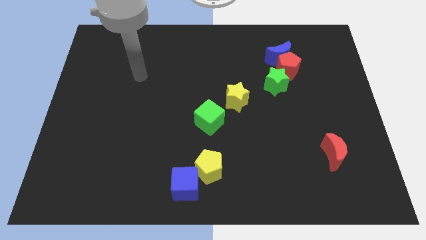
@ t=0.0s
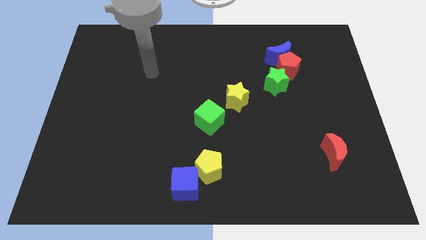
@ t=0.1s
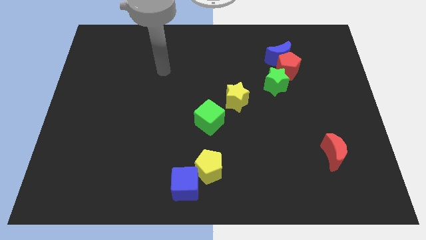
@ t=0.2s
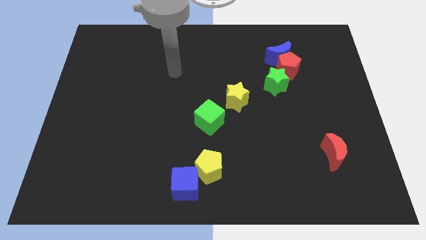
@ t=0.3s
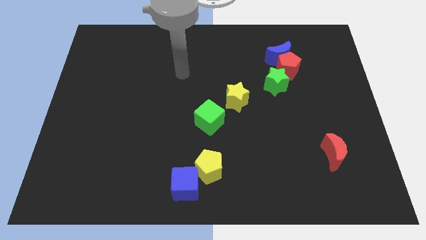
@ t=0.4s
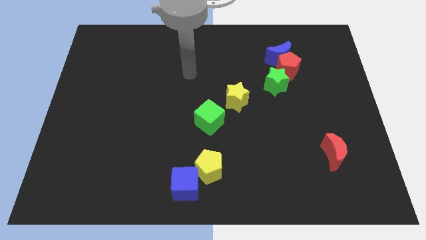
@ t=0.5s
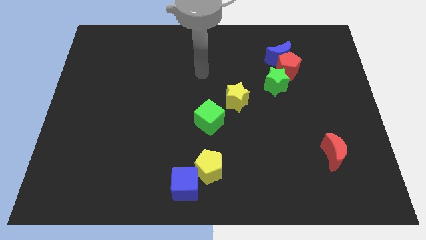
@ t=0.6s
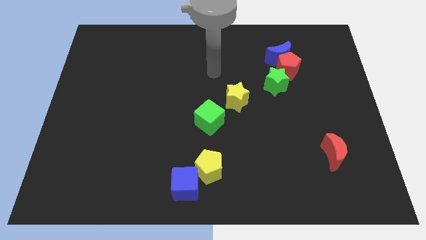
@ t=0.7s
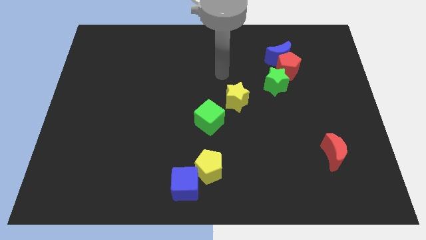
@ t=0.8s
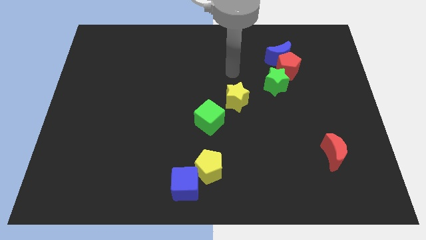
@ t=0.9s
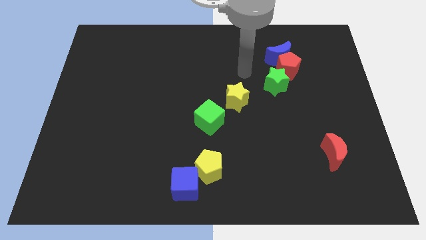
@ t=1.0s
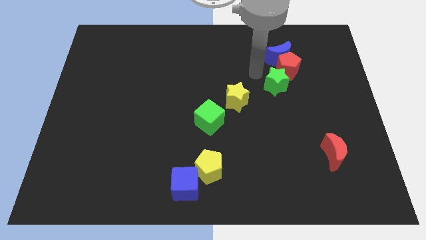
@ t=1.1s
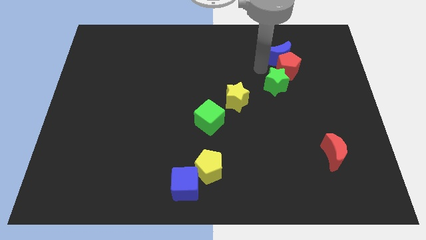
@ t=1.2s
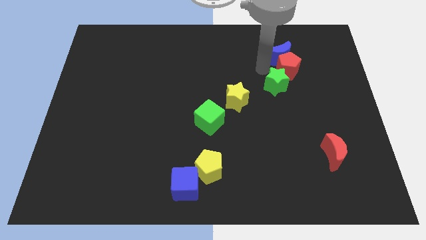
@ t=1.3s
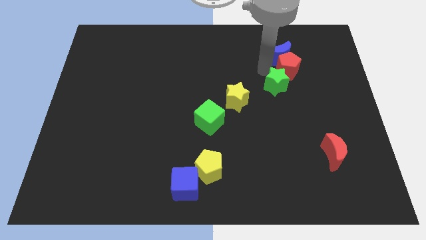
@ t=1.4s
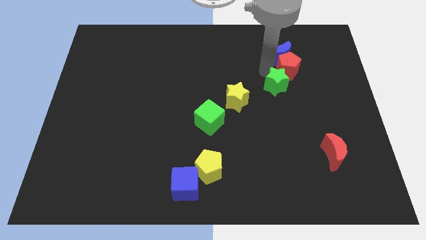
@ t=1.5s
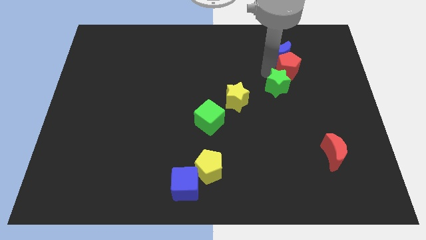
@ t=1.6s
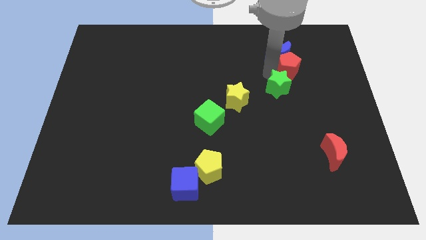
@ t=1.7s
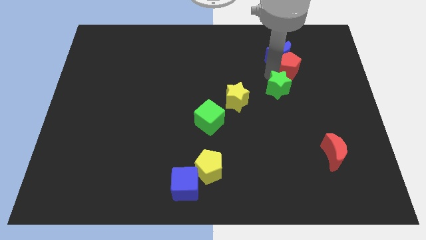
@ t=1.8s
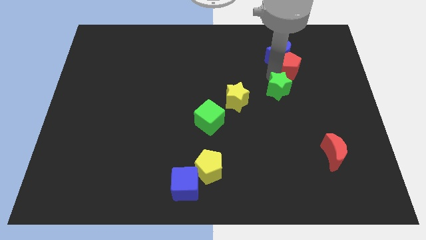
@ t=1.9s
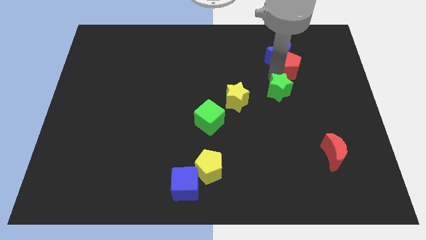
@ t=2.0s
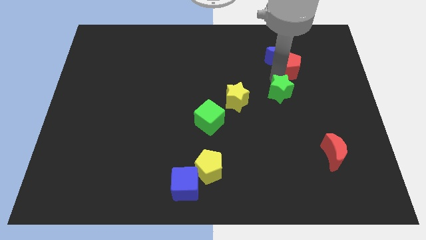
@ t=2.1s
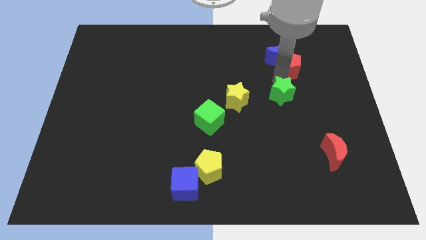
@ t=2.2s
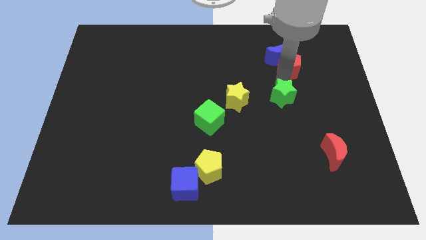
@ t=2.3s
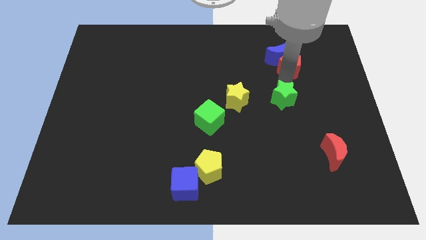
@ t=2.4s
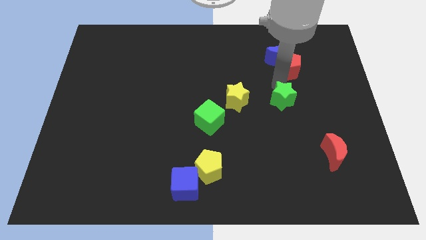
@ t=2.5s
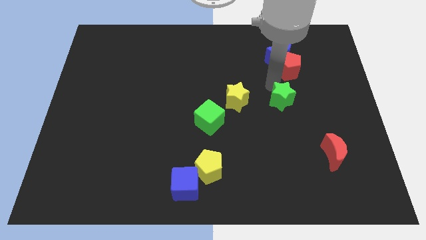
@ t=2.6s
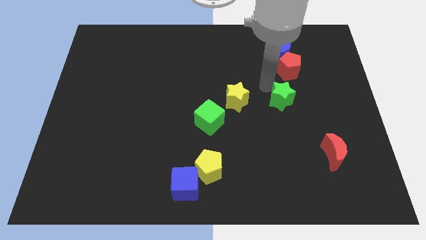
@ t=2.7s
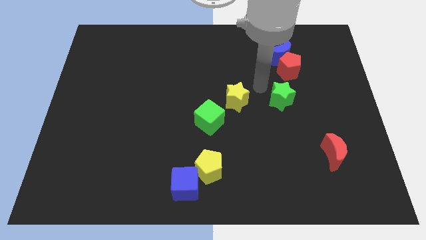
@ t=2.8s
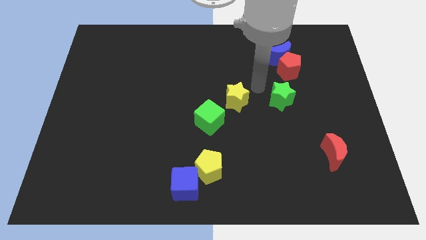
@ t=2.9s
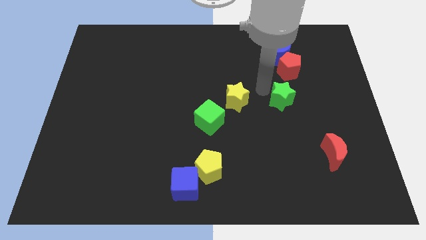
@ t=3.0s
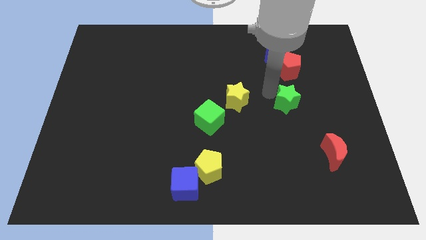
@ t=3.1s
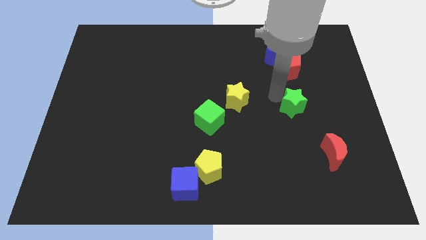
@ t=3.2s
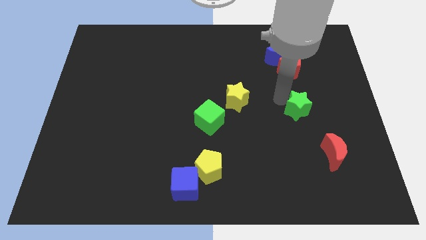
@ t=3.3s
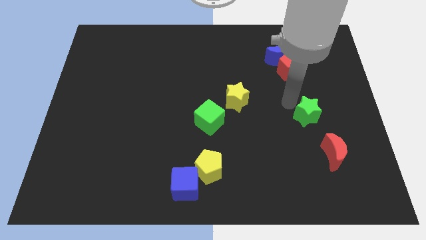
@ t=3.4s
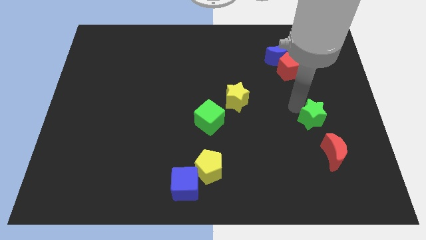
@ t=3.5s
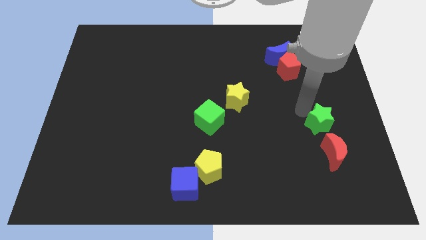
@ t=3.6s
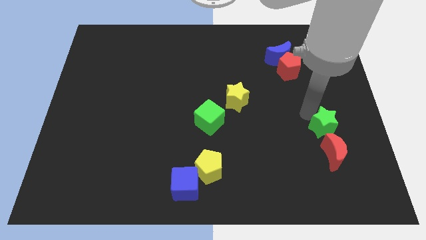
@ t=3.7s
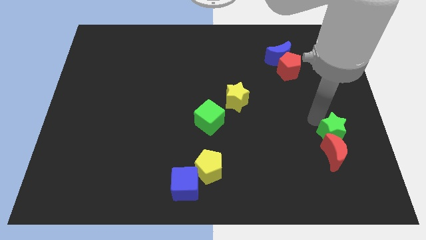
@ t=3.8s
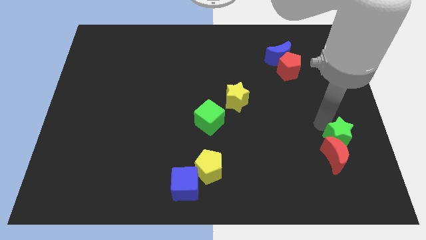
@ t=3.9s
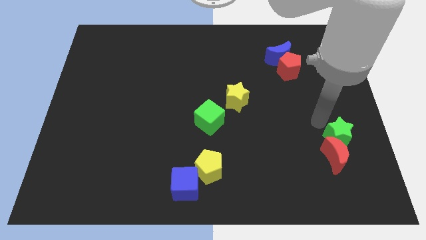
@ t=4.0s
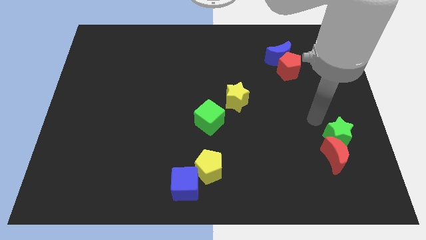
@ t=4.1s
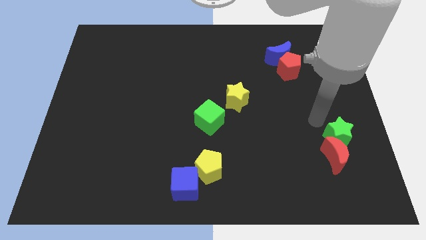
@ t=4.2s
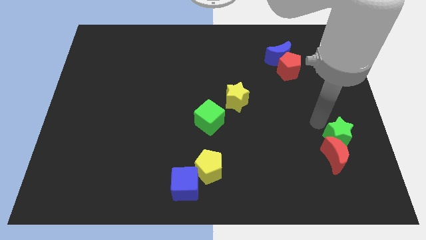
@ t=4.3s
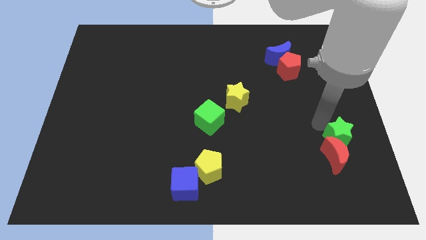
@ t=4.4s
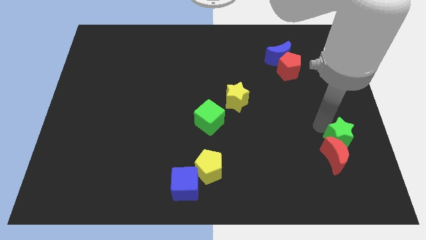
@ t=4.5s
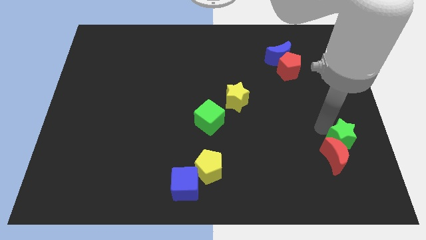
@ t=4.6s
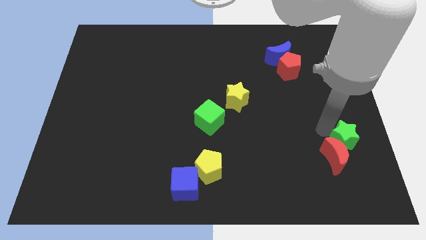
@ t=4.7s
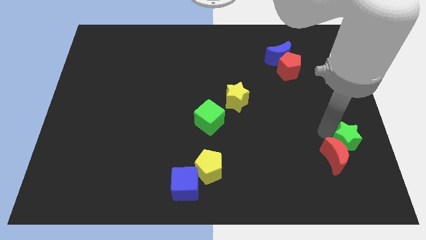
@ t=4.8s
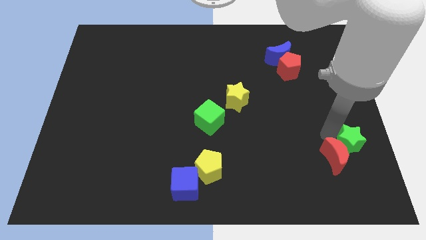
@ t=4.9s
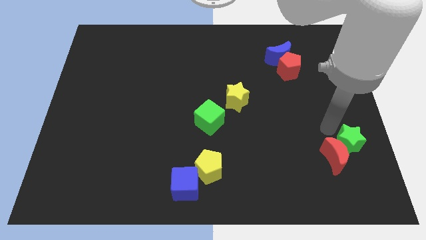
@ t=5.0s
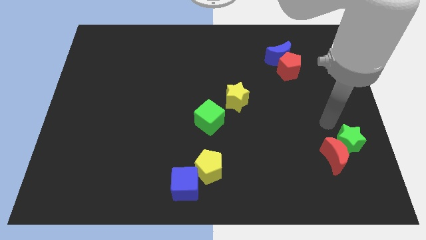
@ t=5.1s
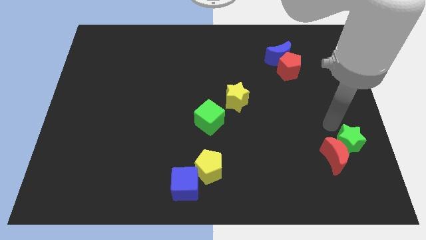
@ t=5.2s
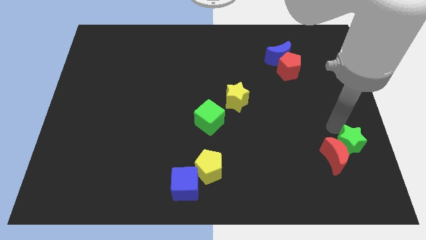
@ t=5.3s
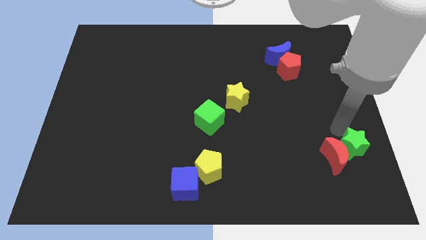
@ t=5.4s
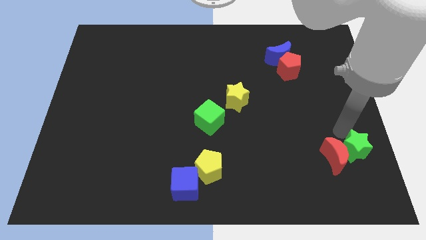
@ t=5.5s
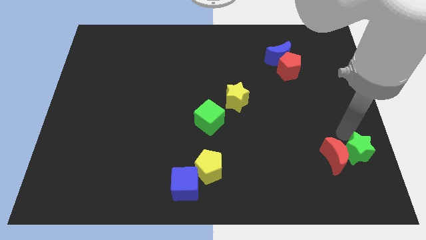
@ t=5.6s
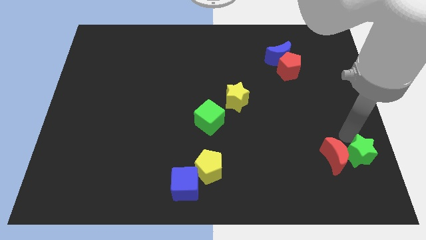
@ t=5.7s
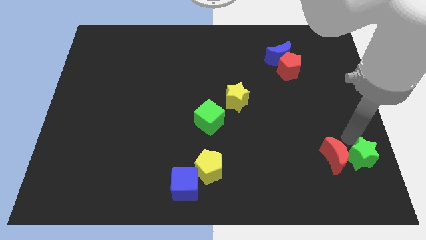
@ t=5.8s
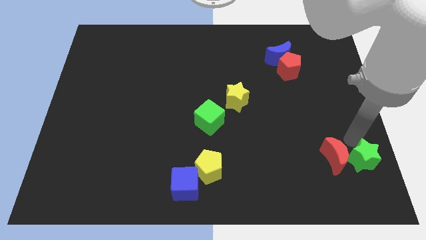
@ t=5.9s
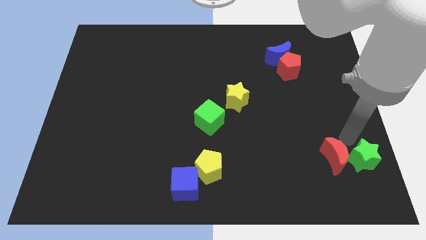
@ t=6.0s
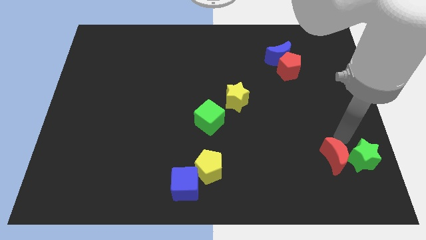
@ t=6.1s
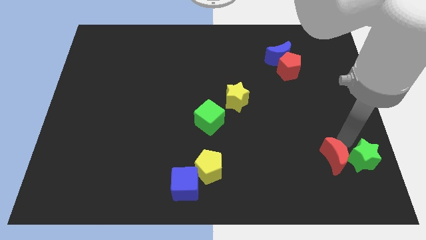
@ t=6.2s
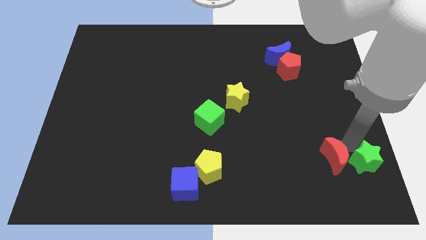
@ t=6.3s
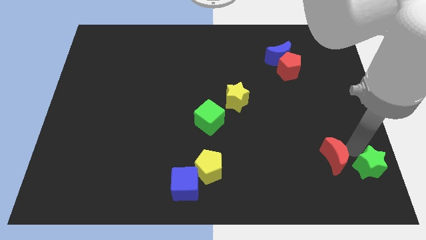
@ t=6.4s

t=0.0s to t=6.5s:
put the green star to the bottom right corner

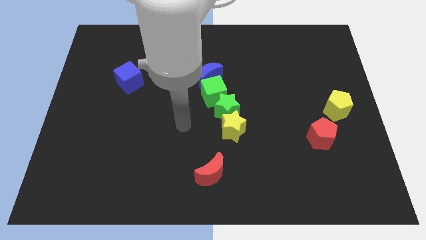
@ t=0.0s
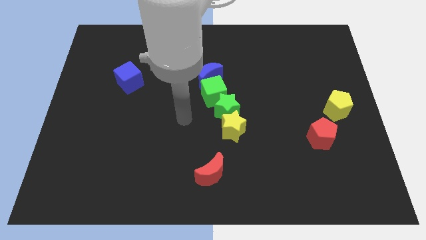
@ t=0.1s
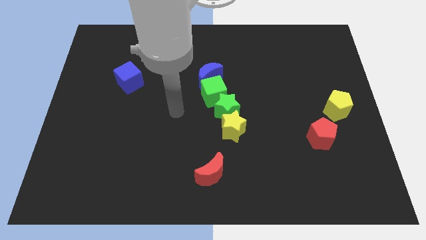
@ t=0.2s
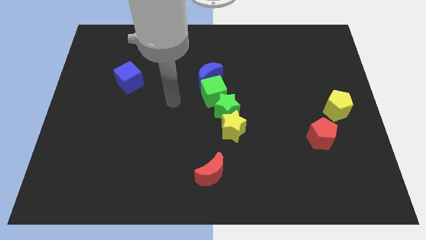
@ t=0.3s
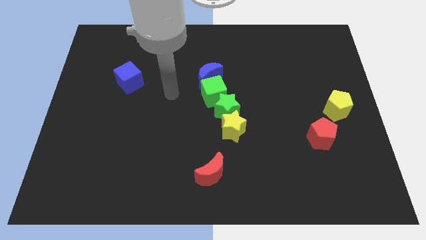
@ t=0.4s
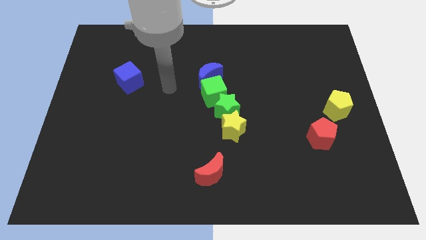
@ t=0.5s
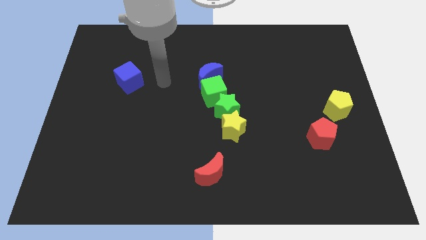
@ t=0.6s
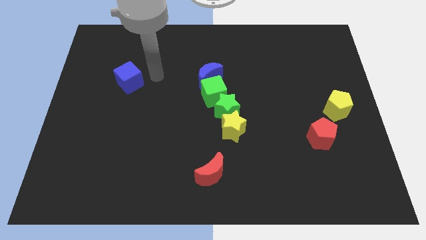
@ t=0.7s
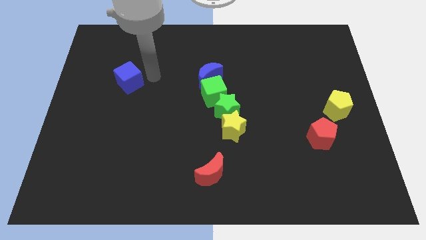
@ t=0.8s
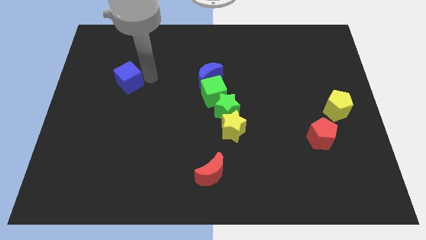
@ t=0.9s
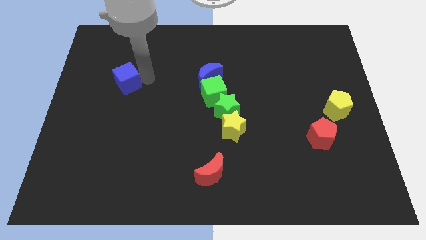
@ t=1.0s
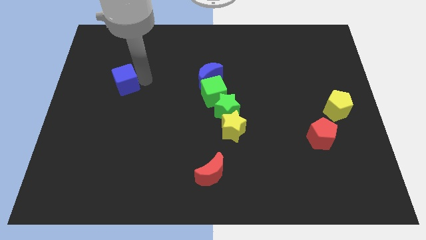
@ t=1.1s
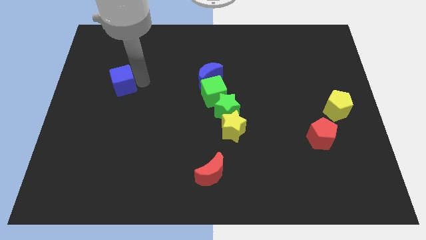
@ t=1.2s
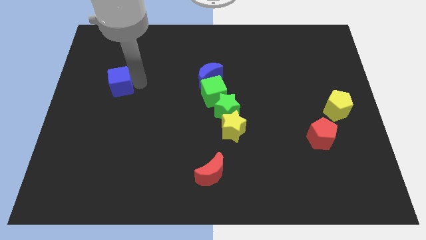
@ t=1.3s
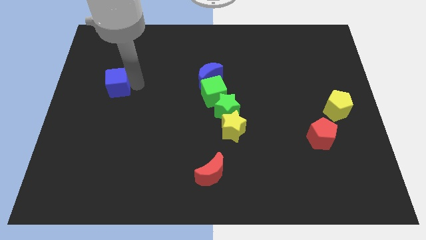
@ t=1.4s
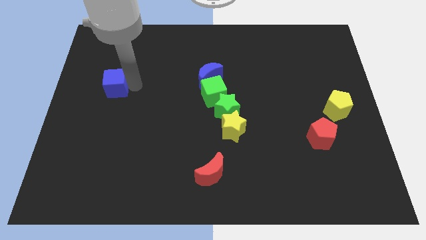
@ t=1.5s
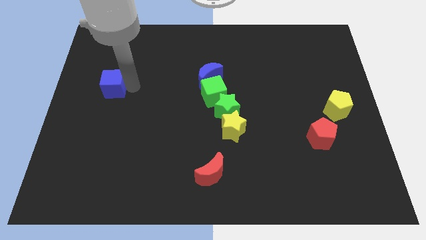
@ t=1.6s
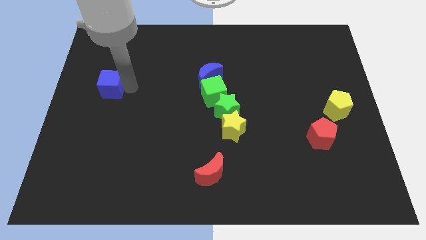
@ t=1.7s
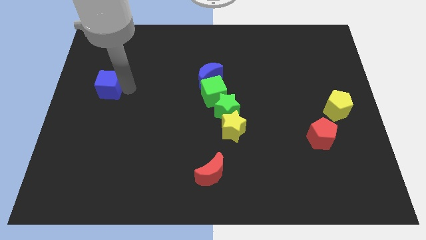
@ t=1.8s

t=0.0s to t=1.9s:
put the blue cube to the left side
